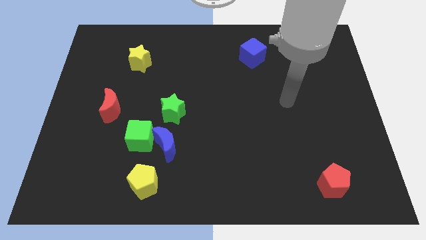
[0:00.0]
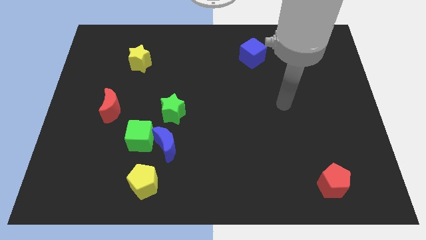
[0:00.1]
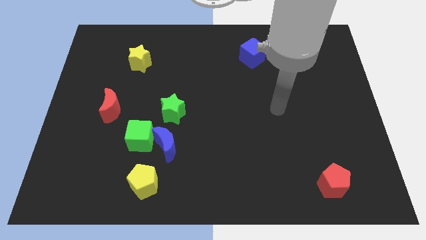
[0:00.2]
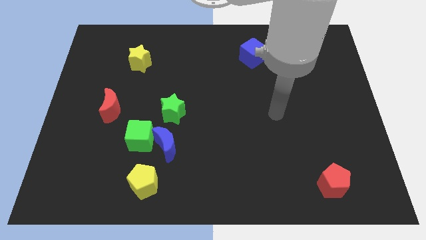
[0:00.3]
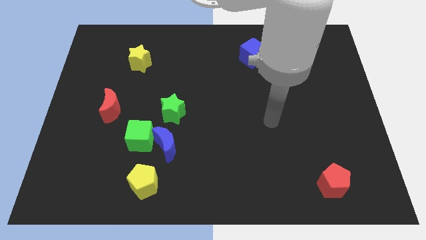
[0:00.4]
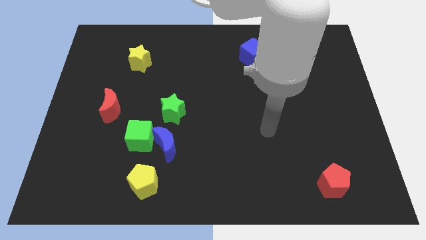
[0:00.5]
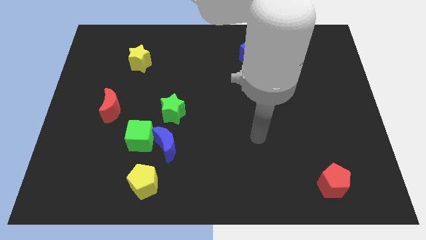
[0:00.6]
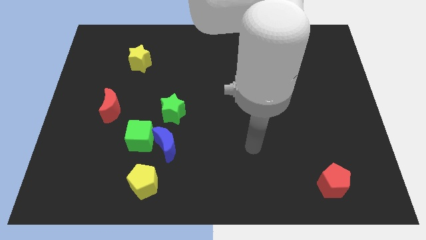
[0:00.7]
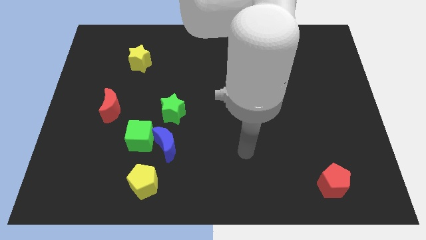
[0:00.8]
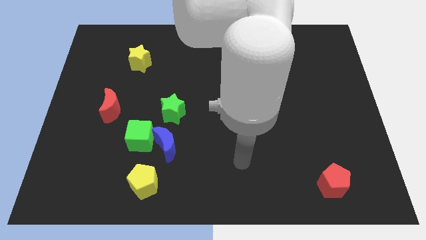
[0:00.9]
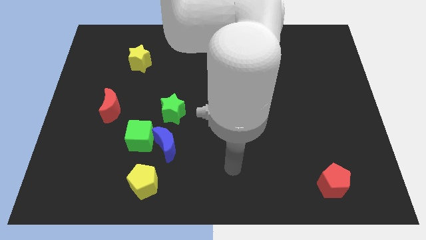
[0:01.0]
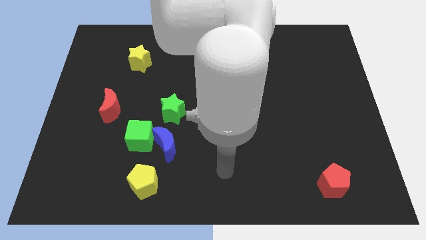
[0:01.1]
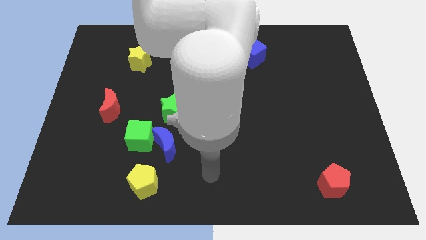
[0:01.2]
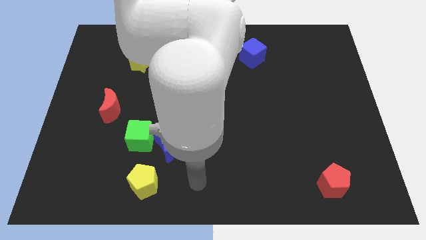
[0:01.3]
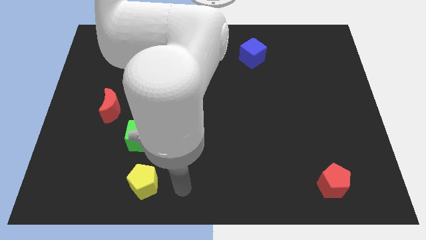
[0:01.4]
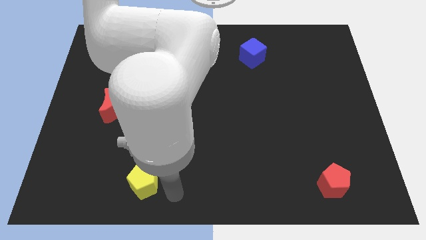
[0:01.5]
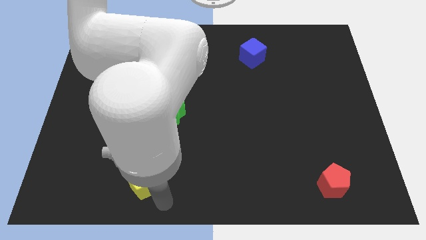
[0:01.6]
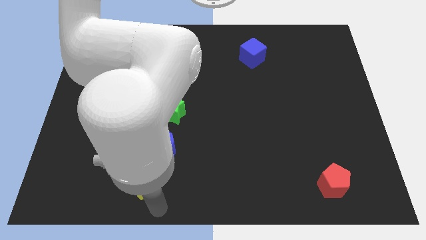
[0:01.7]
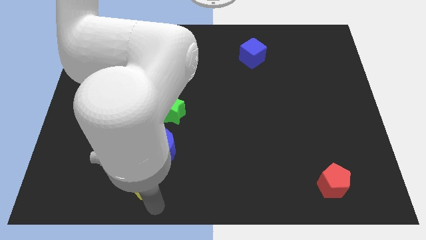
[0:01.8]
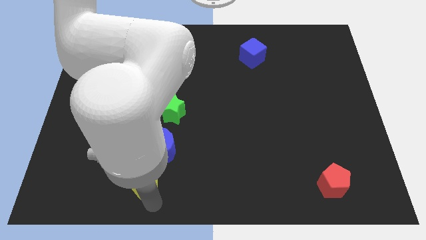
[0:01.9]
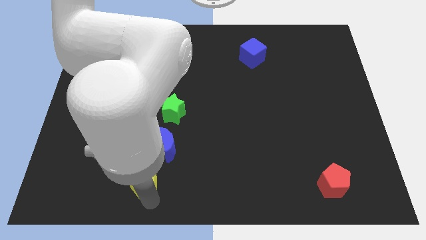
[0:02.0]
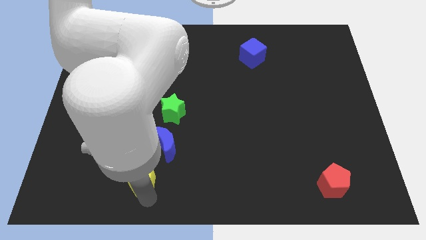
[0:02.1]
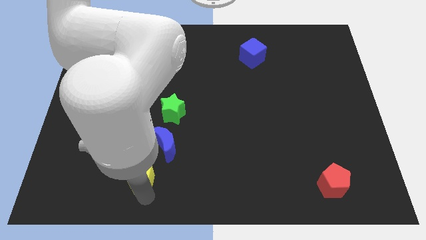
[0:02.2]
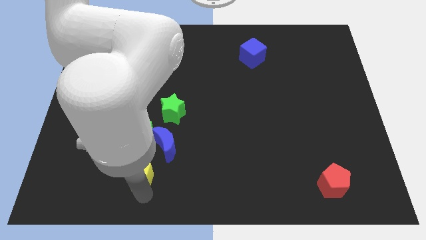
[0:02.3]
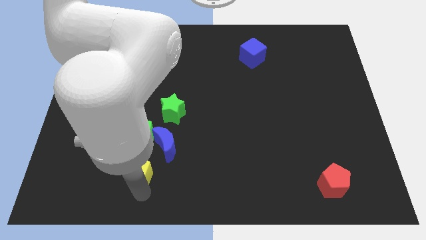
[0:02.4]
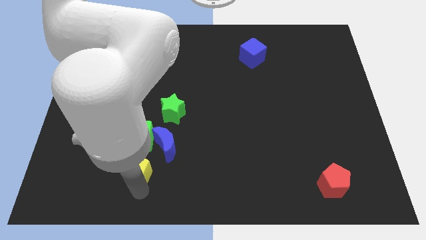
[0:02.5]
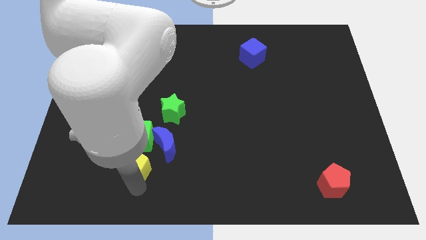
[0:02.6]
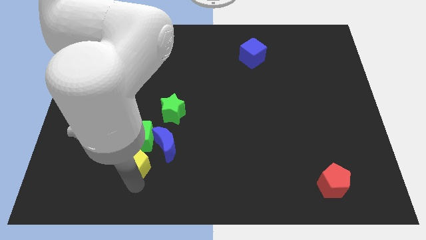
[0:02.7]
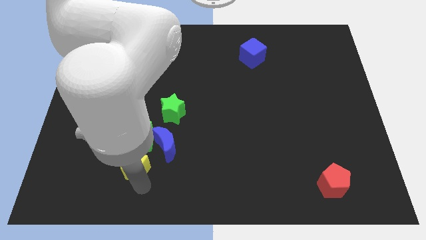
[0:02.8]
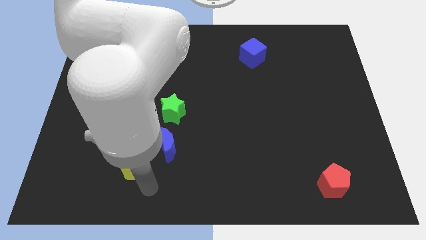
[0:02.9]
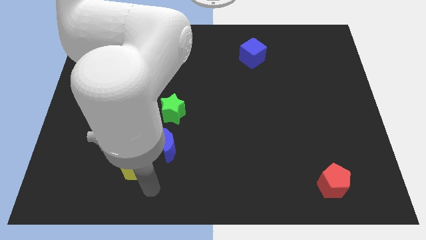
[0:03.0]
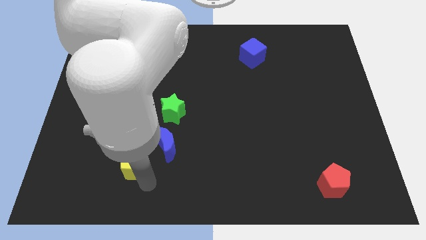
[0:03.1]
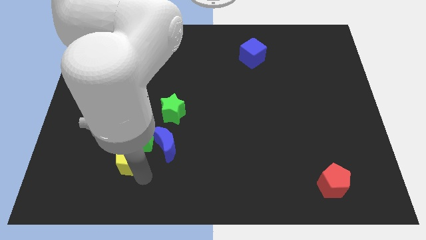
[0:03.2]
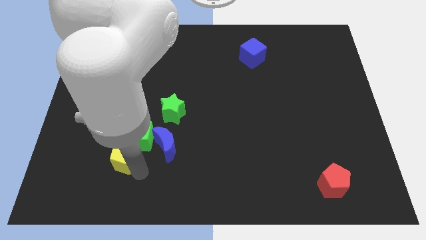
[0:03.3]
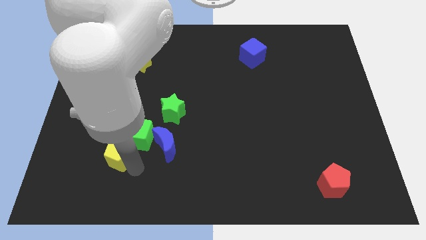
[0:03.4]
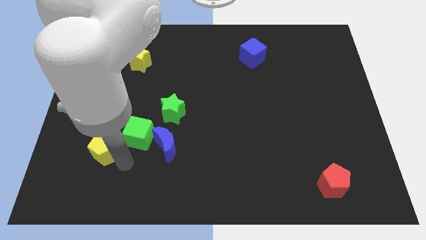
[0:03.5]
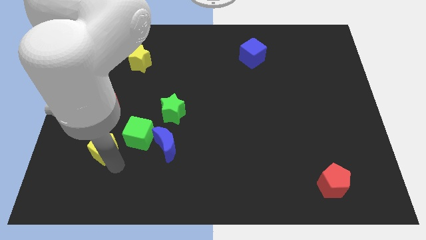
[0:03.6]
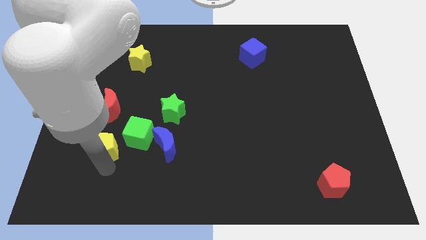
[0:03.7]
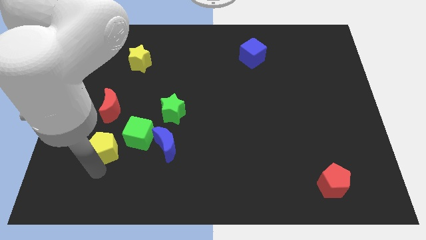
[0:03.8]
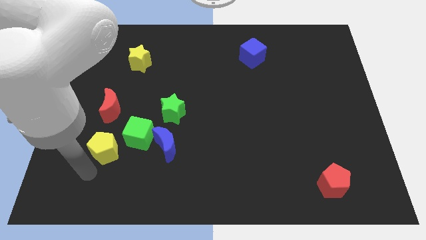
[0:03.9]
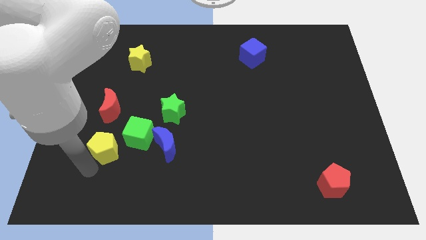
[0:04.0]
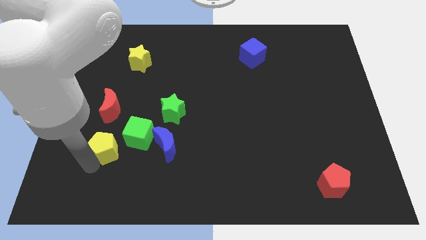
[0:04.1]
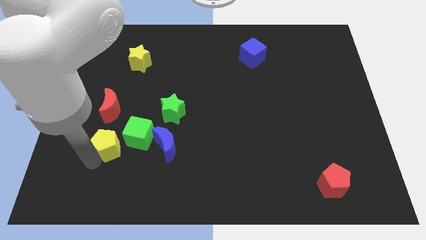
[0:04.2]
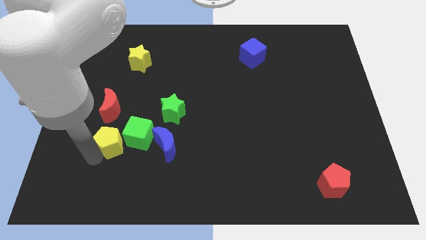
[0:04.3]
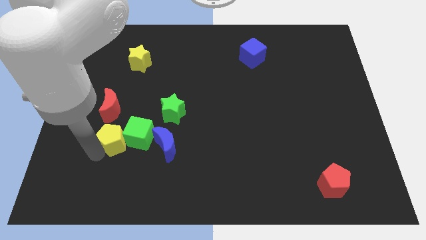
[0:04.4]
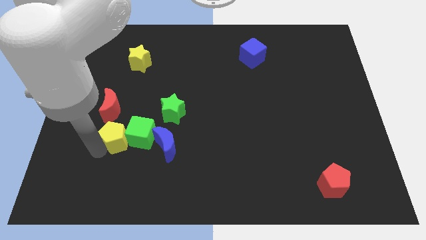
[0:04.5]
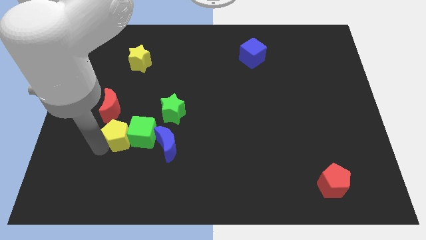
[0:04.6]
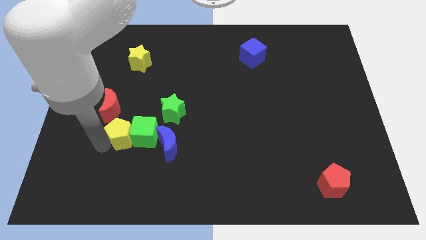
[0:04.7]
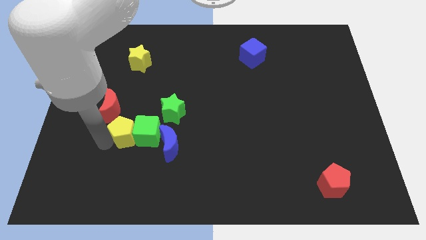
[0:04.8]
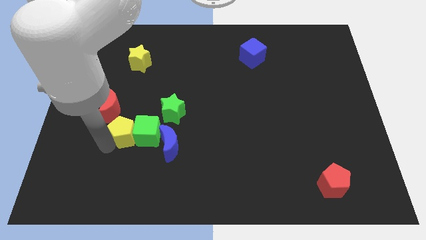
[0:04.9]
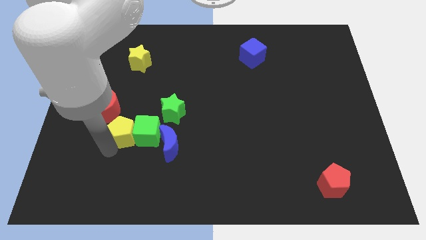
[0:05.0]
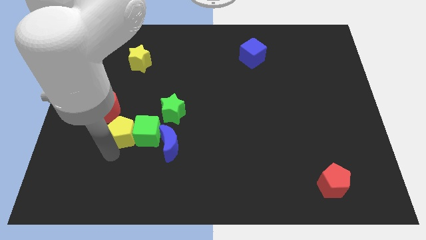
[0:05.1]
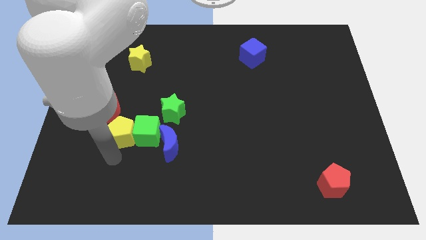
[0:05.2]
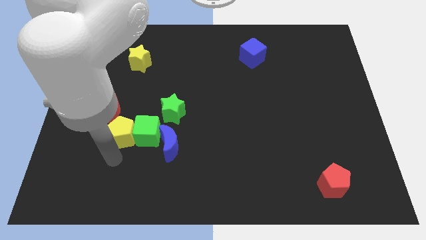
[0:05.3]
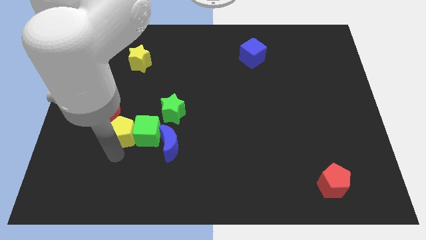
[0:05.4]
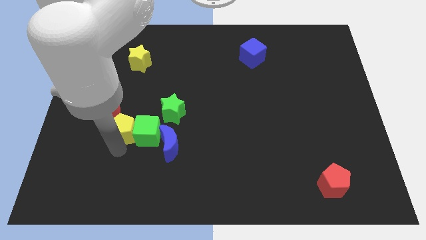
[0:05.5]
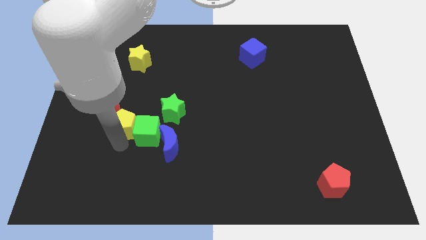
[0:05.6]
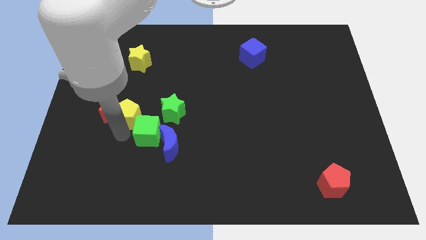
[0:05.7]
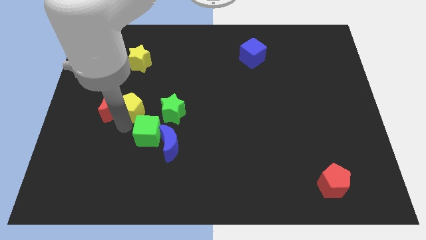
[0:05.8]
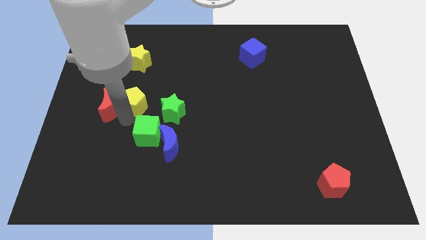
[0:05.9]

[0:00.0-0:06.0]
put the yellow pentagon to the top left side of the green star
